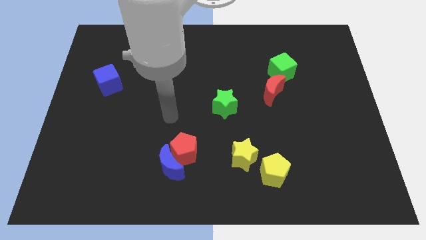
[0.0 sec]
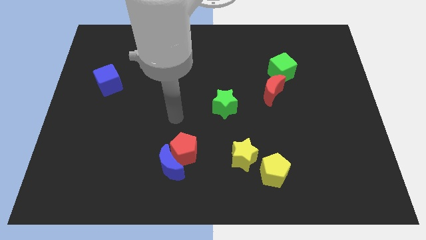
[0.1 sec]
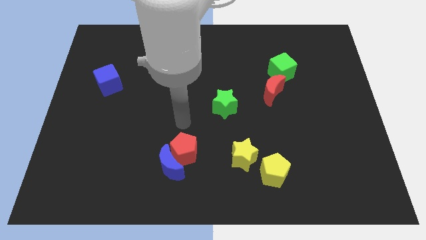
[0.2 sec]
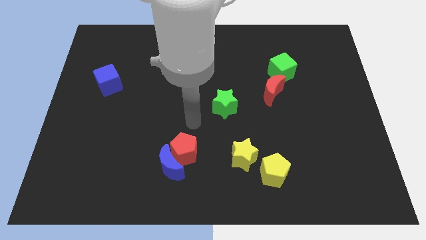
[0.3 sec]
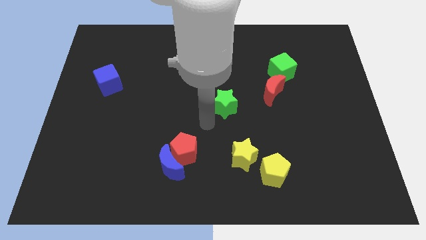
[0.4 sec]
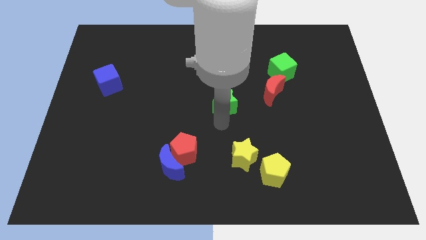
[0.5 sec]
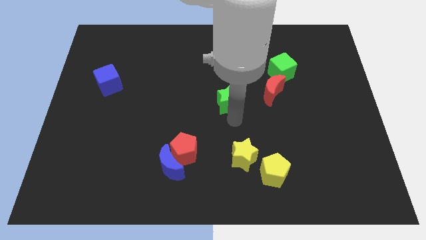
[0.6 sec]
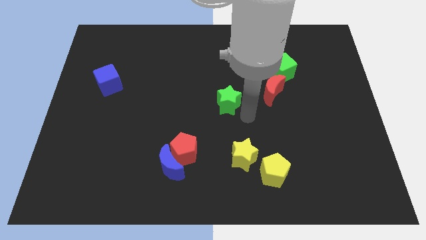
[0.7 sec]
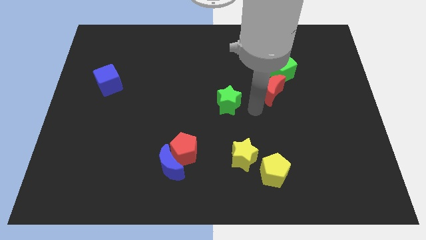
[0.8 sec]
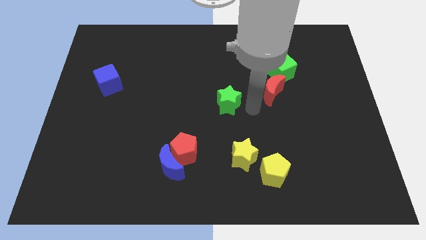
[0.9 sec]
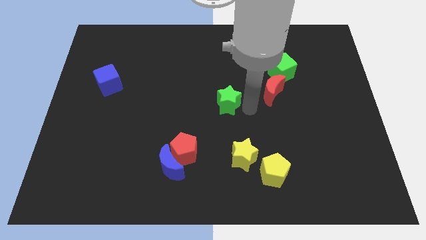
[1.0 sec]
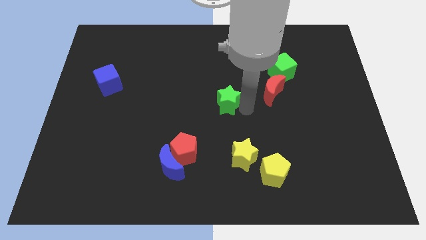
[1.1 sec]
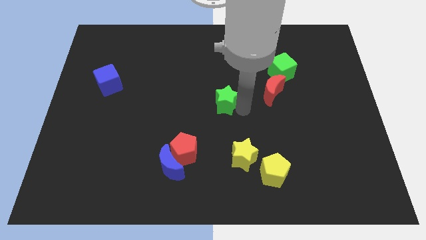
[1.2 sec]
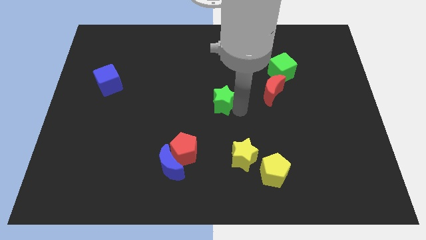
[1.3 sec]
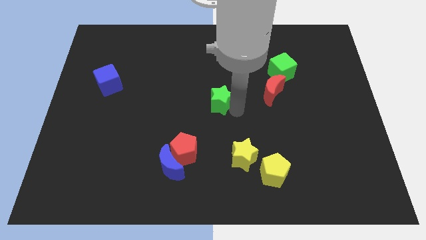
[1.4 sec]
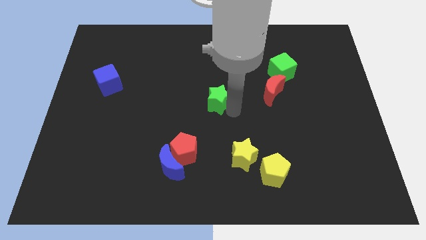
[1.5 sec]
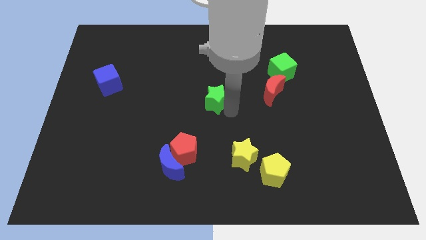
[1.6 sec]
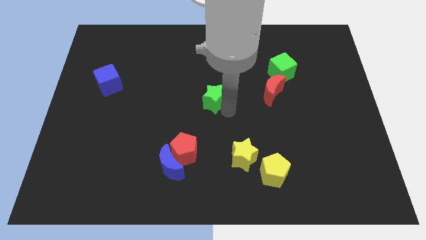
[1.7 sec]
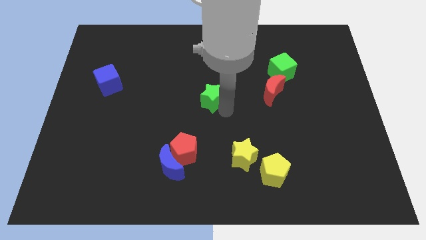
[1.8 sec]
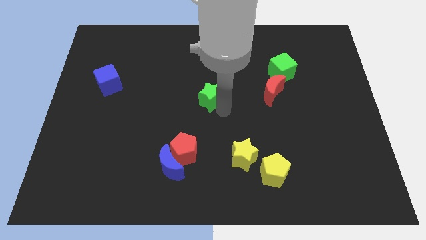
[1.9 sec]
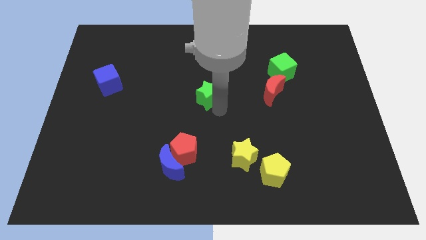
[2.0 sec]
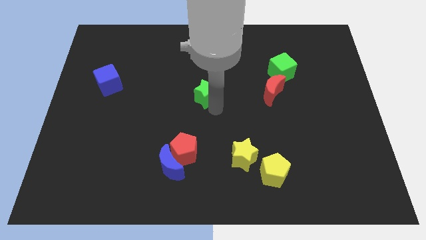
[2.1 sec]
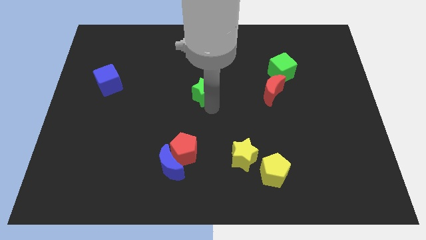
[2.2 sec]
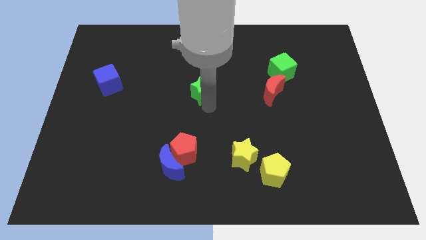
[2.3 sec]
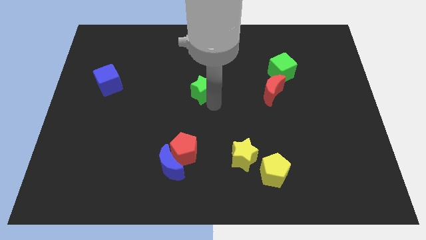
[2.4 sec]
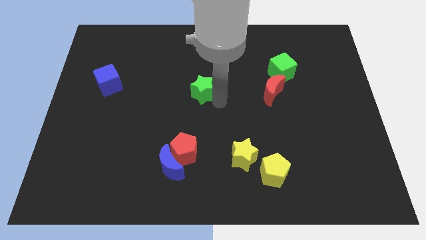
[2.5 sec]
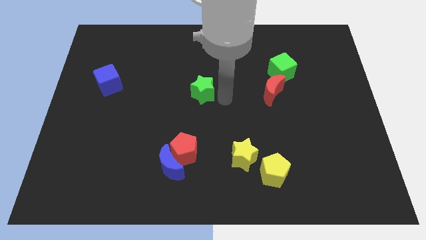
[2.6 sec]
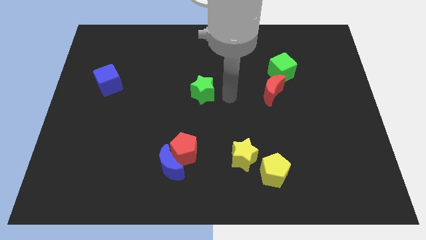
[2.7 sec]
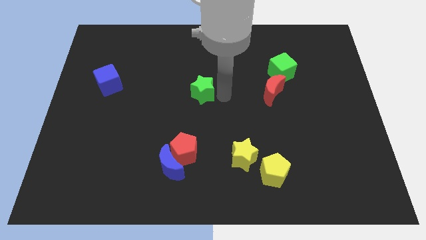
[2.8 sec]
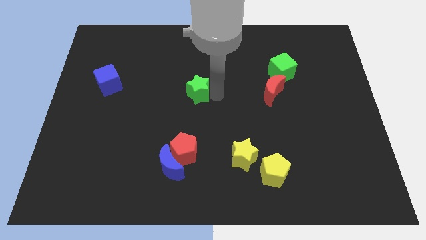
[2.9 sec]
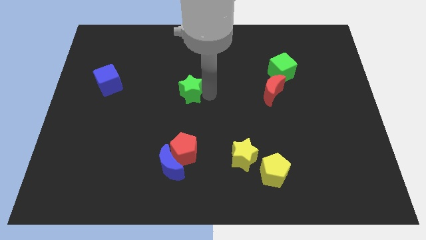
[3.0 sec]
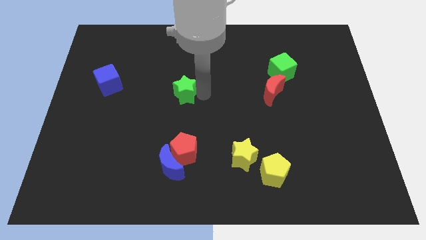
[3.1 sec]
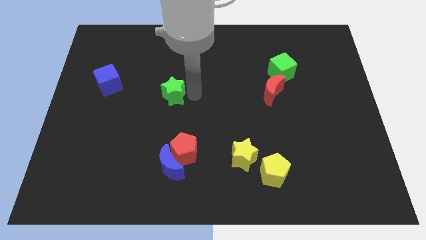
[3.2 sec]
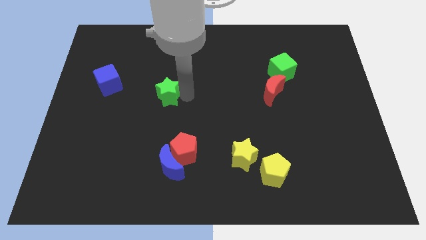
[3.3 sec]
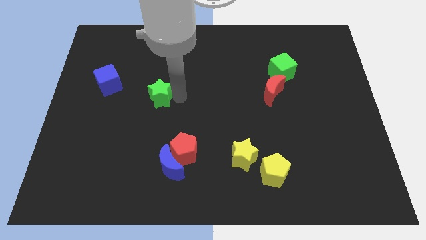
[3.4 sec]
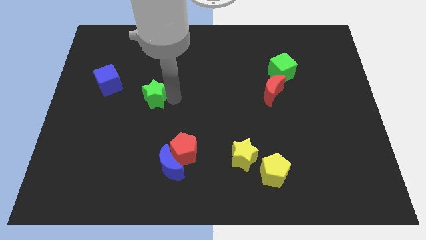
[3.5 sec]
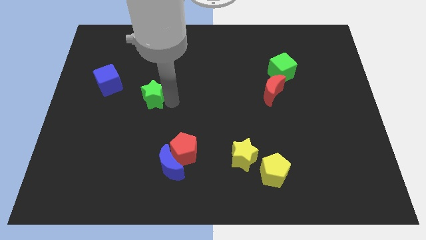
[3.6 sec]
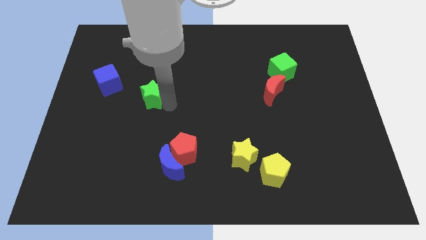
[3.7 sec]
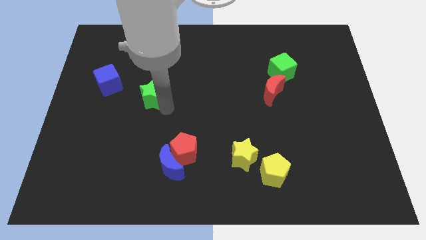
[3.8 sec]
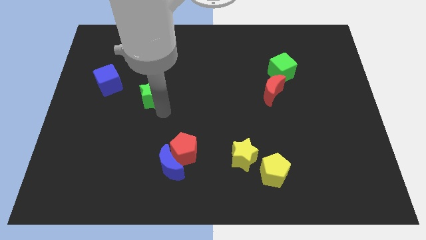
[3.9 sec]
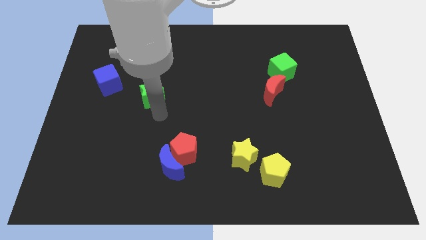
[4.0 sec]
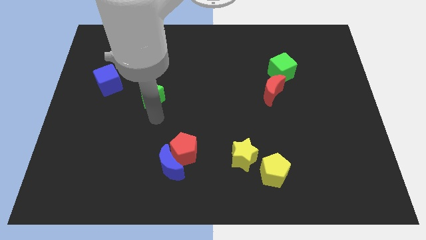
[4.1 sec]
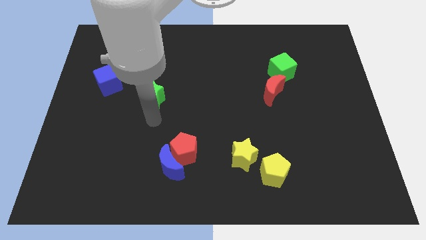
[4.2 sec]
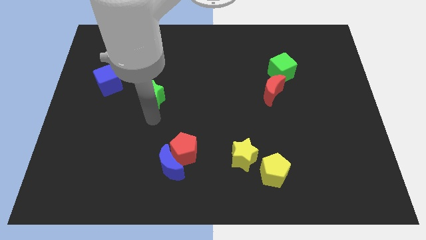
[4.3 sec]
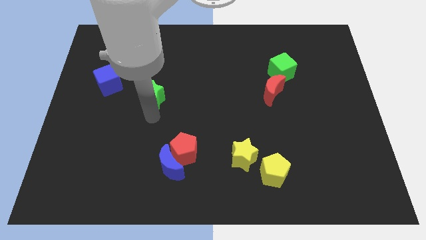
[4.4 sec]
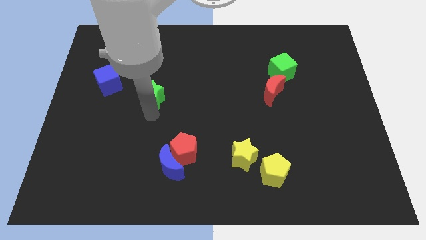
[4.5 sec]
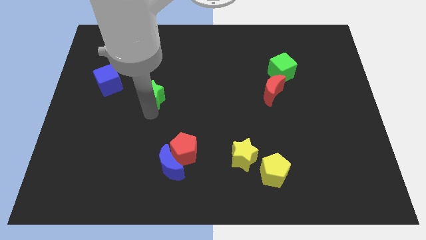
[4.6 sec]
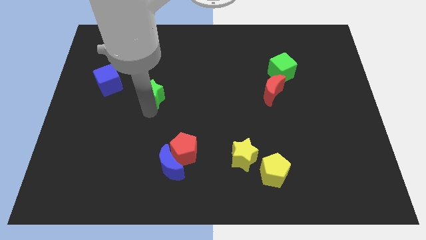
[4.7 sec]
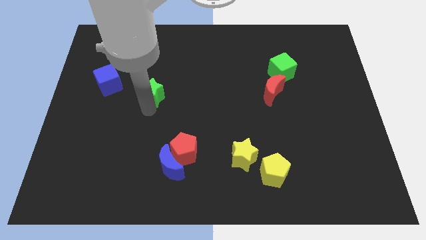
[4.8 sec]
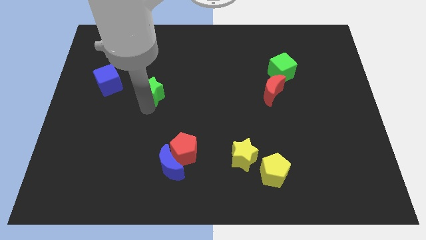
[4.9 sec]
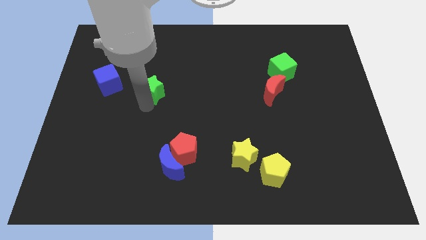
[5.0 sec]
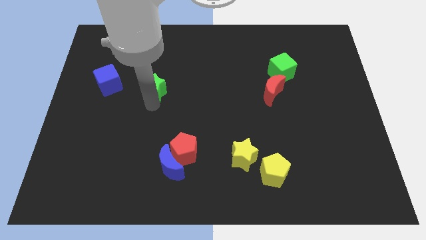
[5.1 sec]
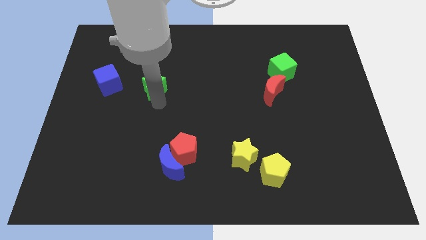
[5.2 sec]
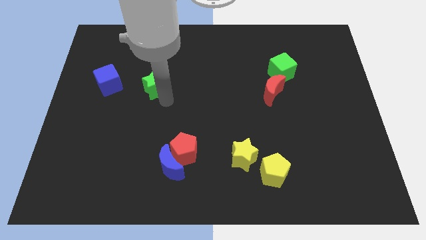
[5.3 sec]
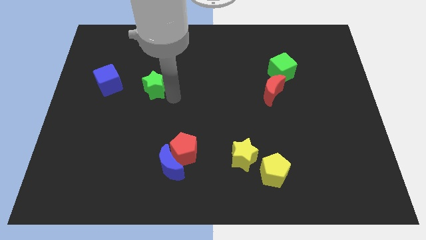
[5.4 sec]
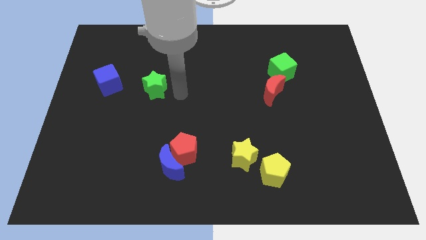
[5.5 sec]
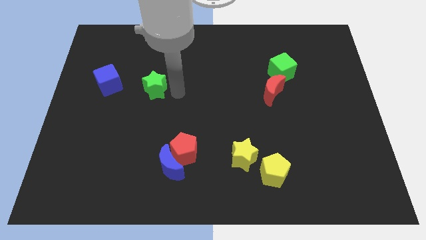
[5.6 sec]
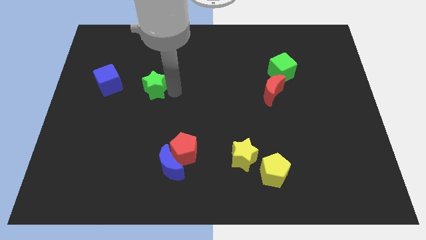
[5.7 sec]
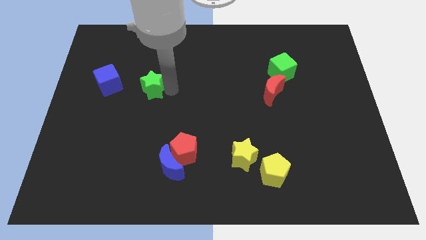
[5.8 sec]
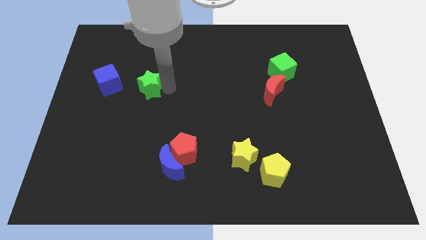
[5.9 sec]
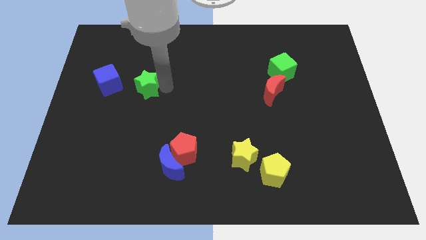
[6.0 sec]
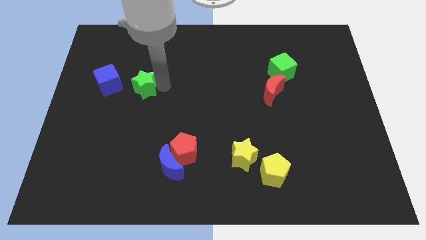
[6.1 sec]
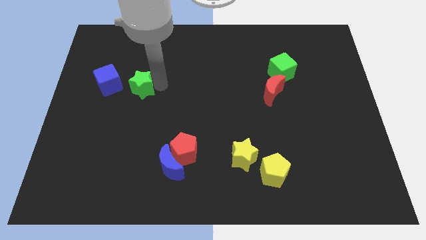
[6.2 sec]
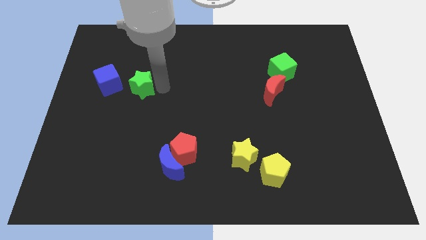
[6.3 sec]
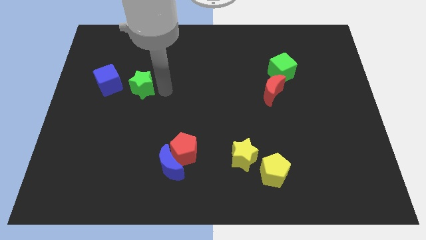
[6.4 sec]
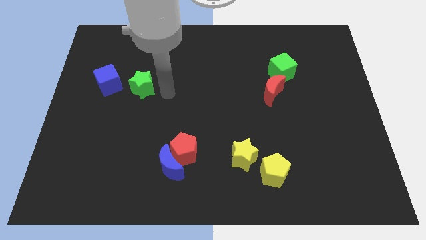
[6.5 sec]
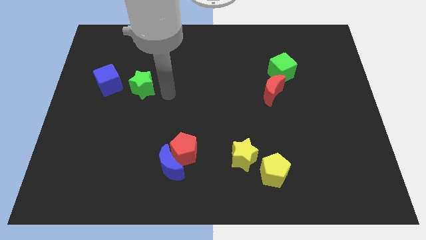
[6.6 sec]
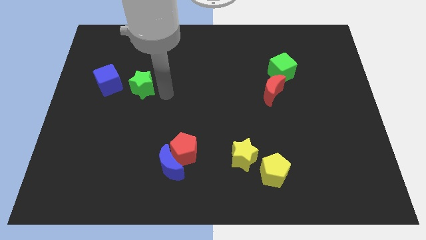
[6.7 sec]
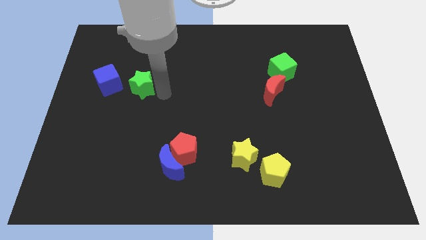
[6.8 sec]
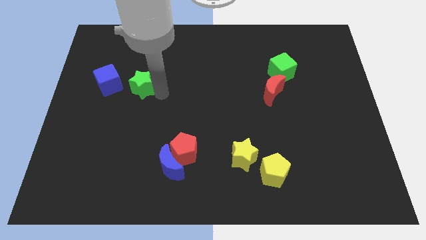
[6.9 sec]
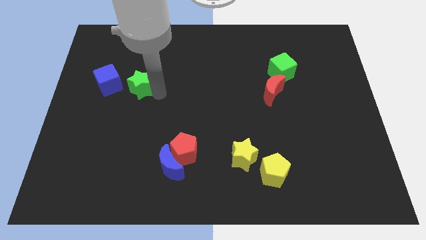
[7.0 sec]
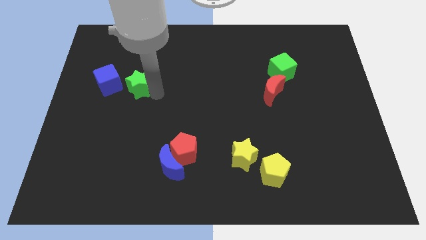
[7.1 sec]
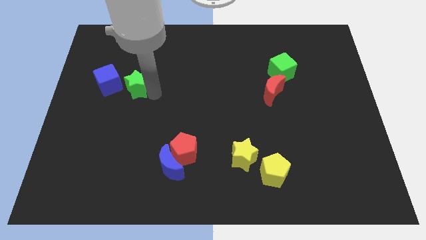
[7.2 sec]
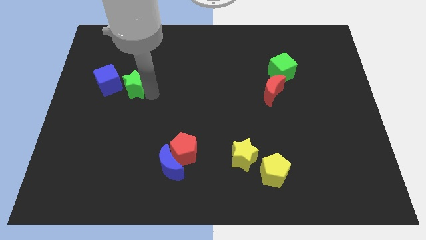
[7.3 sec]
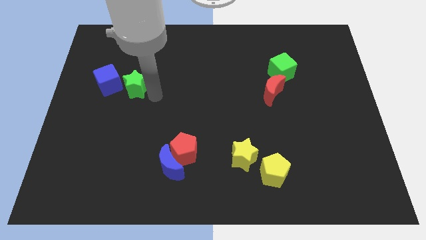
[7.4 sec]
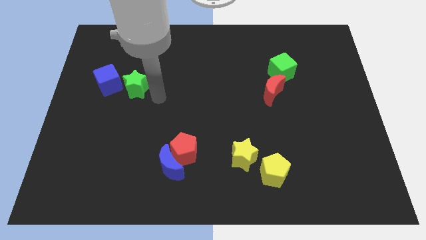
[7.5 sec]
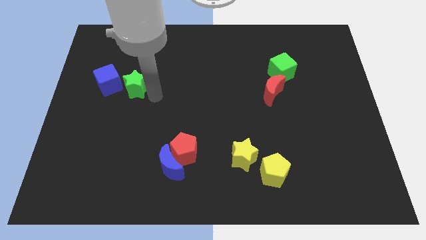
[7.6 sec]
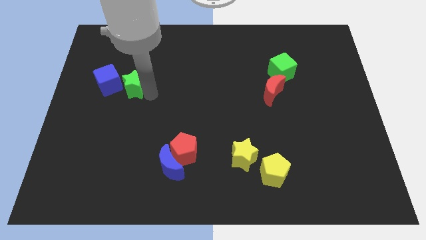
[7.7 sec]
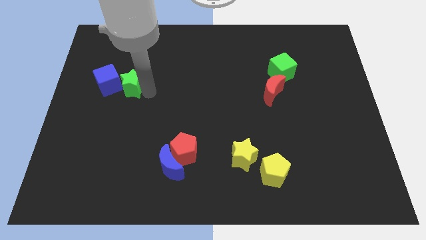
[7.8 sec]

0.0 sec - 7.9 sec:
move the green star to the blue cube
